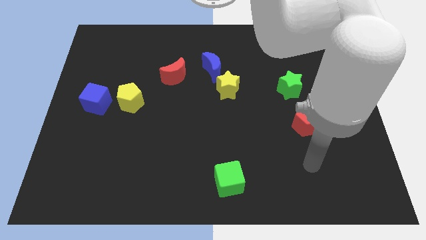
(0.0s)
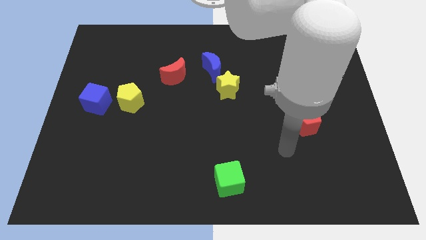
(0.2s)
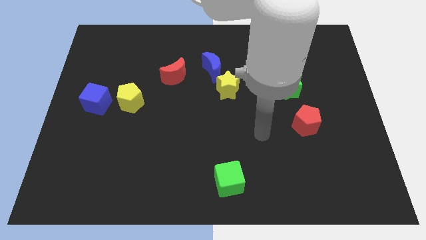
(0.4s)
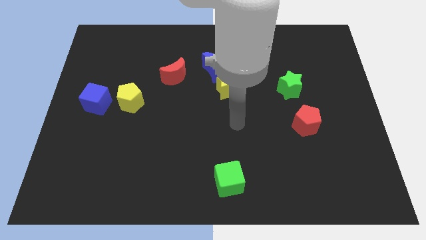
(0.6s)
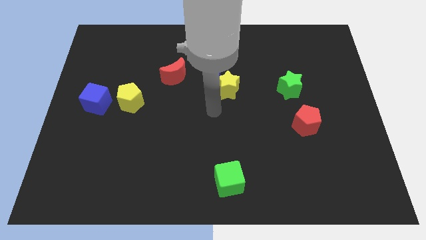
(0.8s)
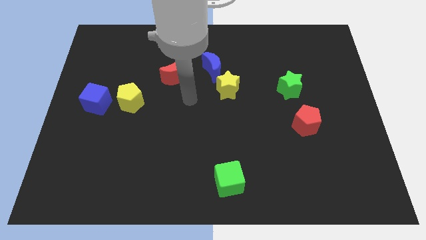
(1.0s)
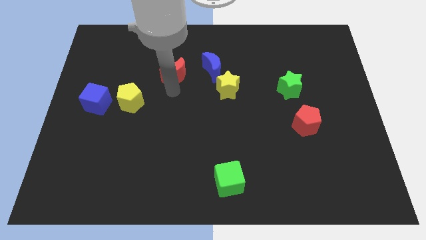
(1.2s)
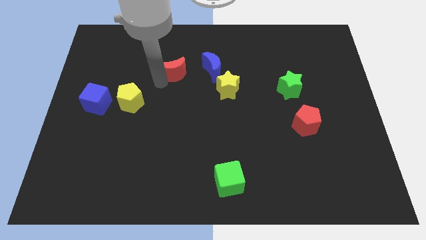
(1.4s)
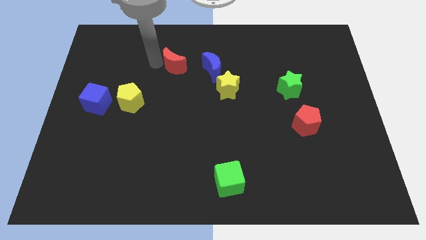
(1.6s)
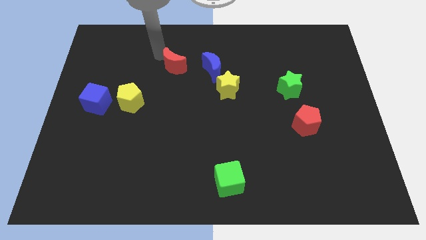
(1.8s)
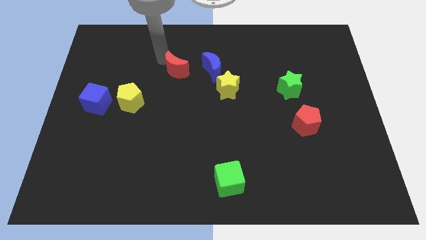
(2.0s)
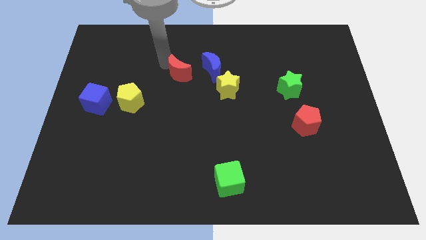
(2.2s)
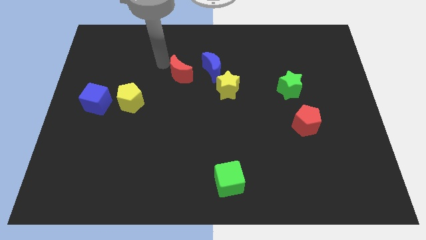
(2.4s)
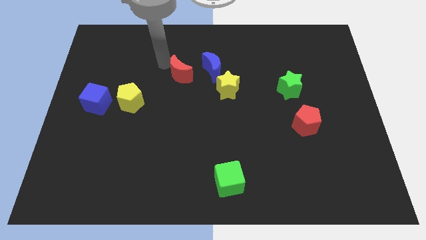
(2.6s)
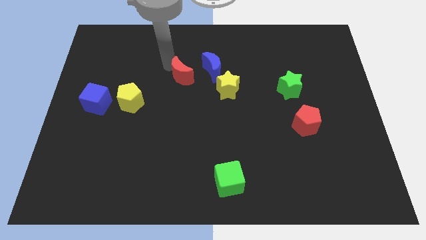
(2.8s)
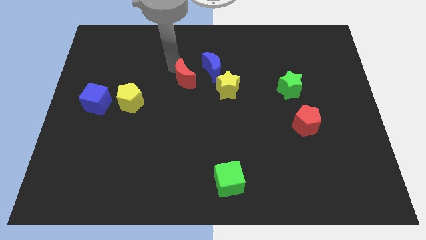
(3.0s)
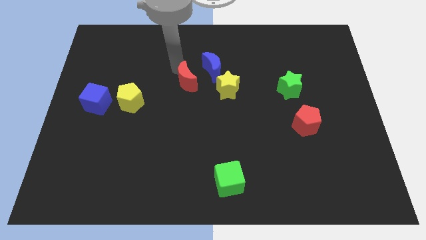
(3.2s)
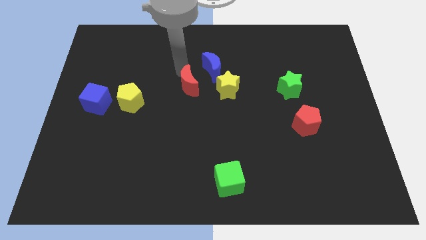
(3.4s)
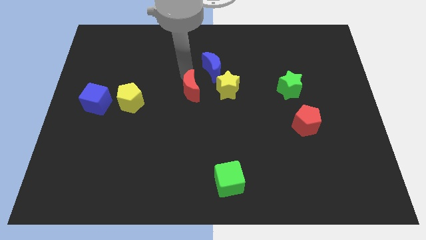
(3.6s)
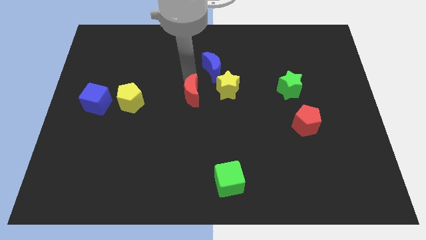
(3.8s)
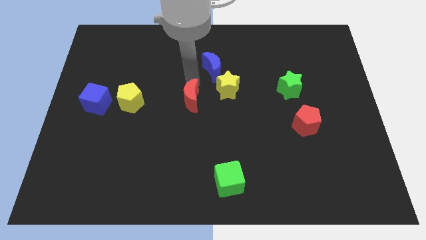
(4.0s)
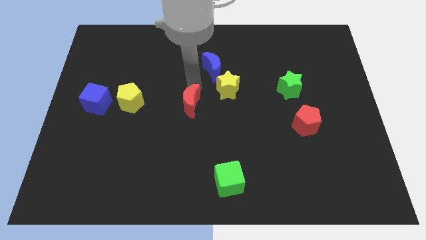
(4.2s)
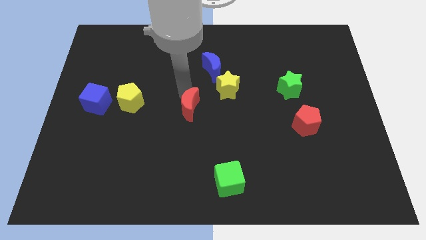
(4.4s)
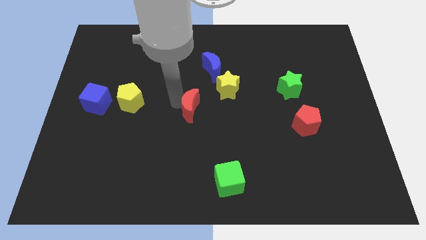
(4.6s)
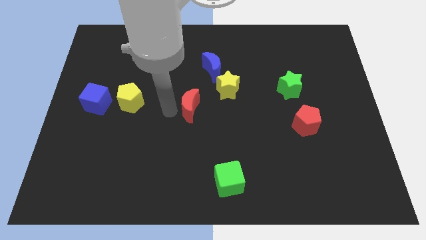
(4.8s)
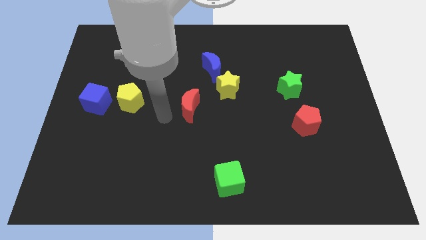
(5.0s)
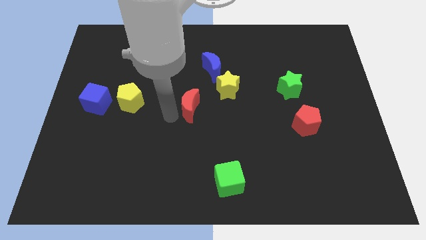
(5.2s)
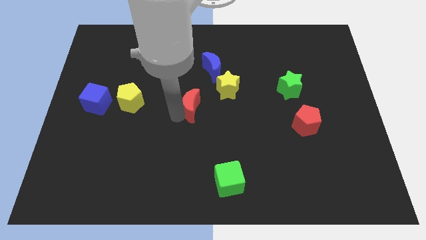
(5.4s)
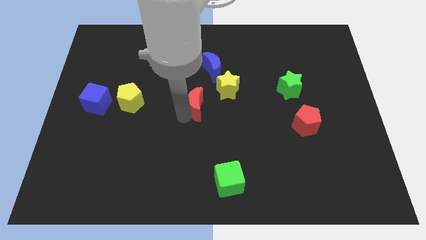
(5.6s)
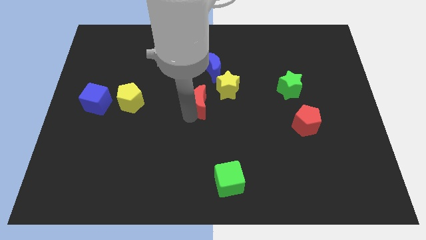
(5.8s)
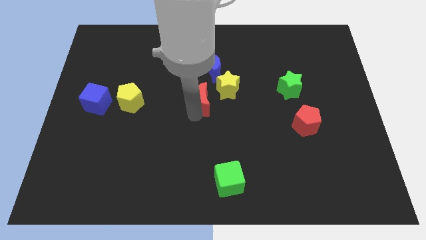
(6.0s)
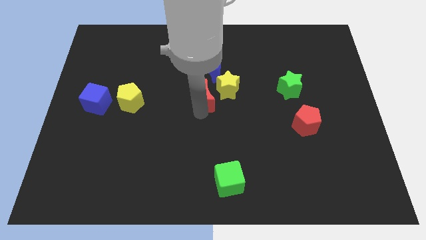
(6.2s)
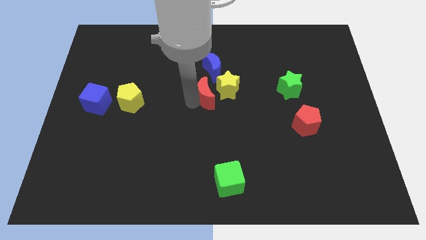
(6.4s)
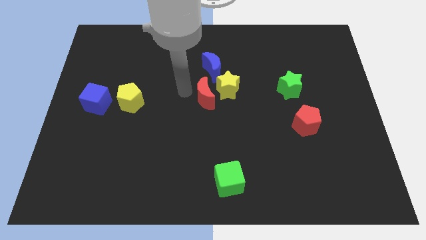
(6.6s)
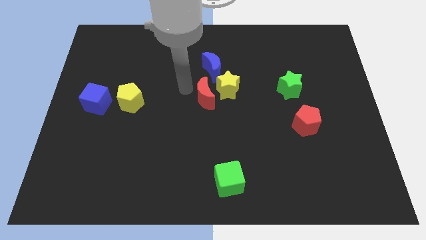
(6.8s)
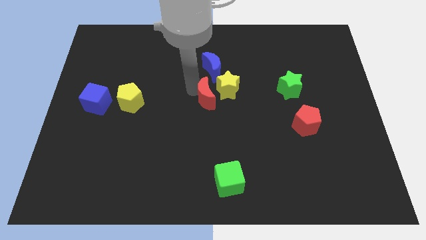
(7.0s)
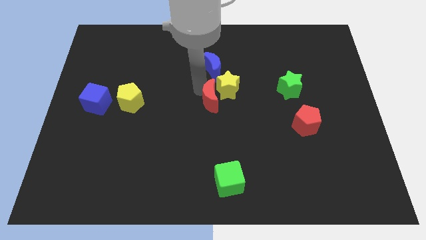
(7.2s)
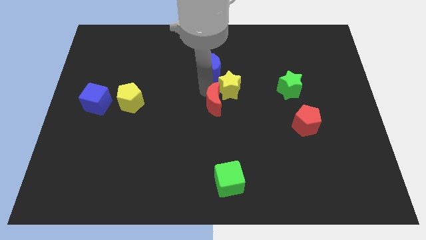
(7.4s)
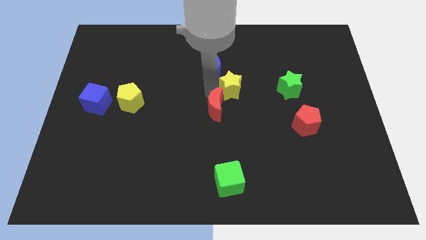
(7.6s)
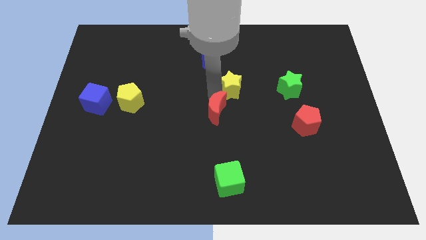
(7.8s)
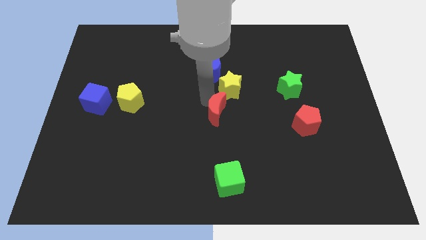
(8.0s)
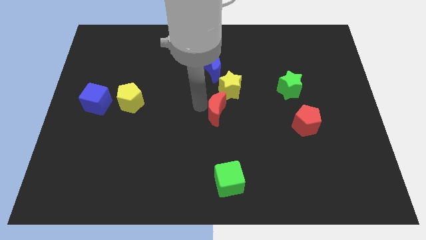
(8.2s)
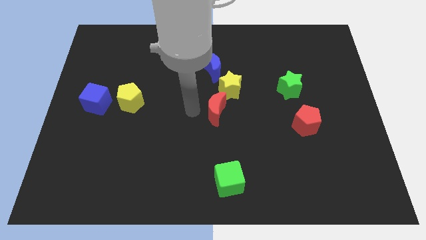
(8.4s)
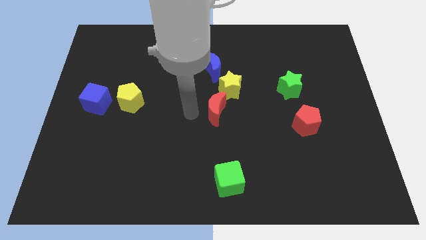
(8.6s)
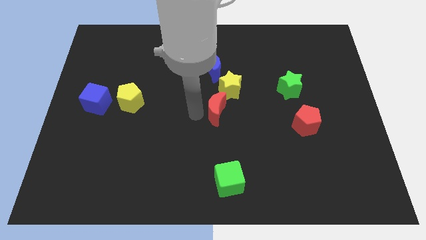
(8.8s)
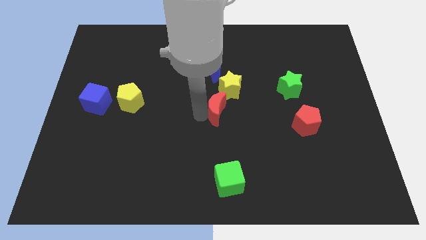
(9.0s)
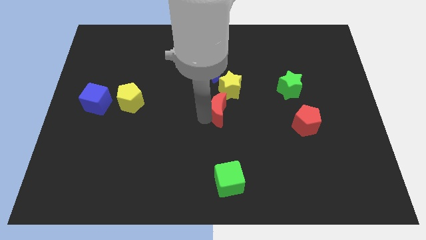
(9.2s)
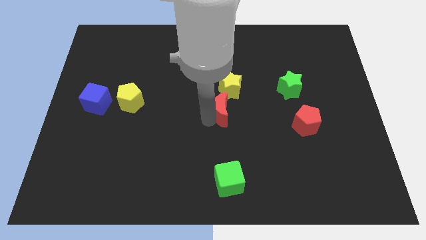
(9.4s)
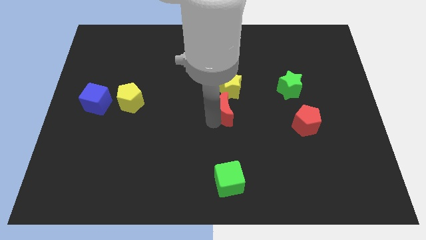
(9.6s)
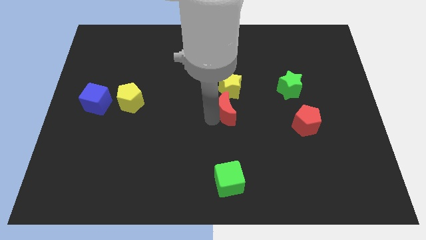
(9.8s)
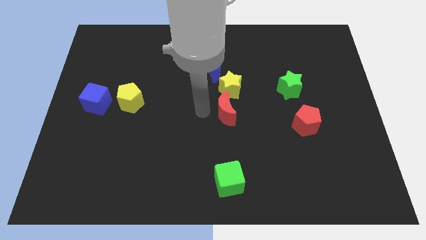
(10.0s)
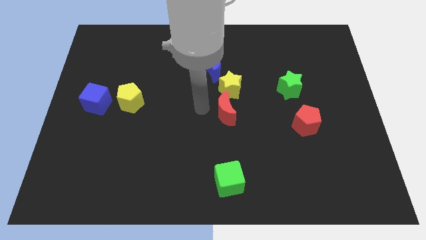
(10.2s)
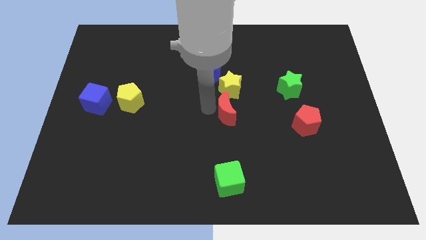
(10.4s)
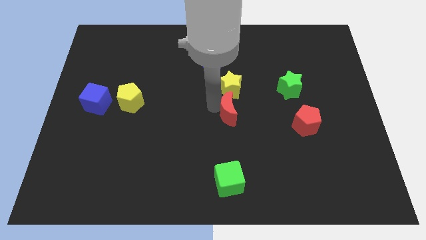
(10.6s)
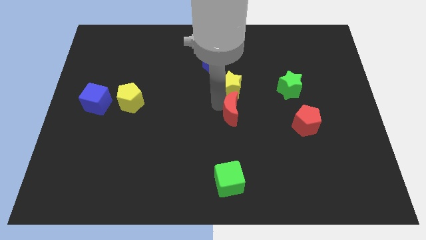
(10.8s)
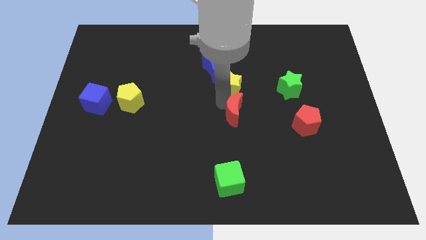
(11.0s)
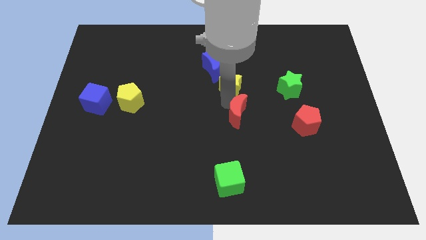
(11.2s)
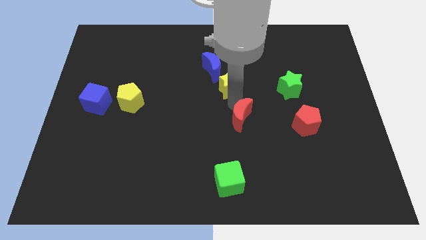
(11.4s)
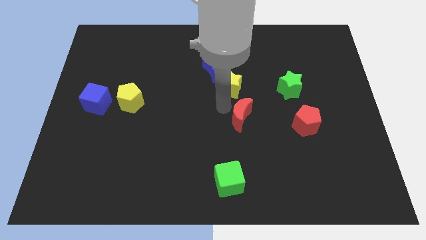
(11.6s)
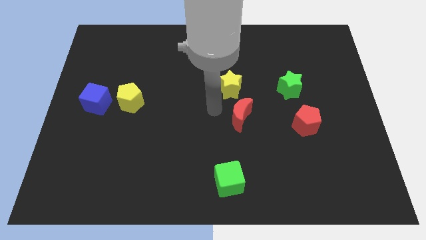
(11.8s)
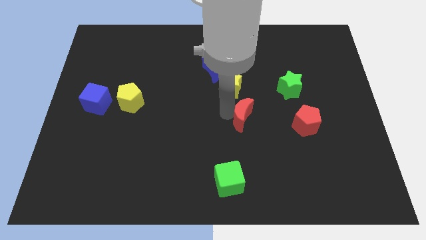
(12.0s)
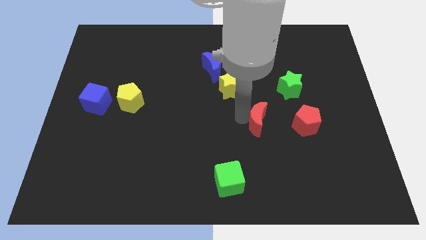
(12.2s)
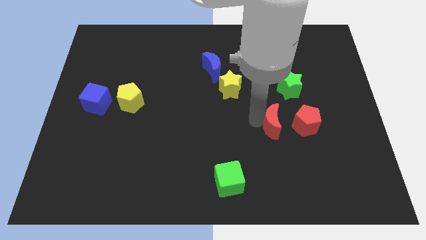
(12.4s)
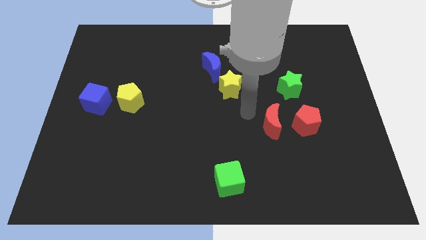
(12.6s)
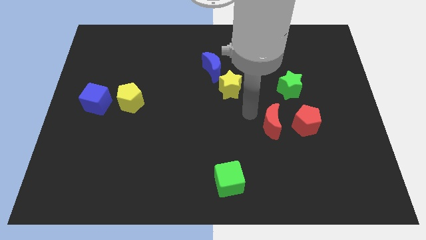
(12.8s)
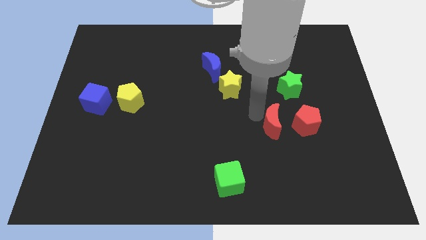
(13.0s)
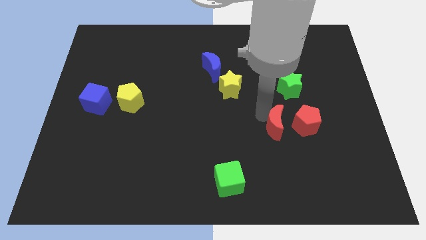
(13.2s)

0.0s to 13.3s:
move the red moon to the bottom side of the green star

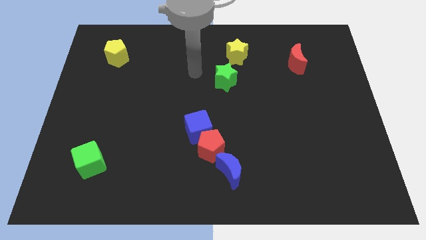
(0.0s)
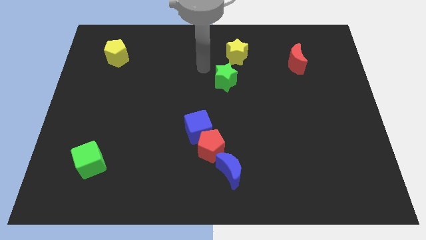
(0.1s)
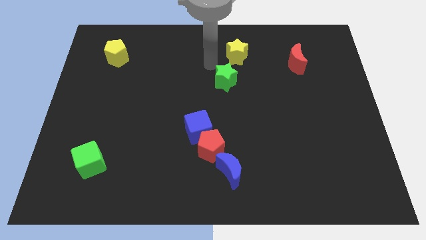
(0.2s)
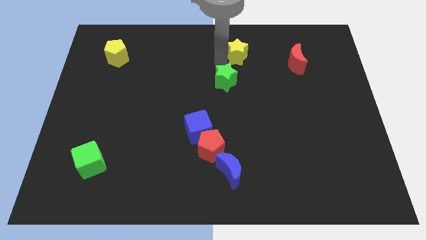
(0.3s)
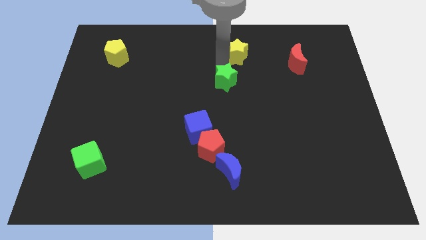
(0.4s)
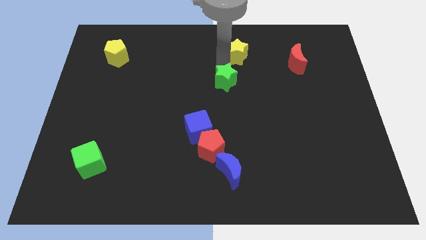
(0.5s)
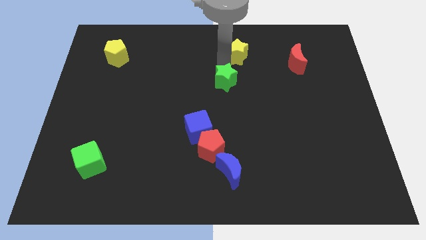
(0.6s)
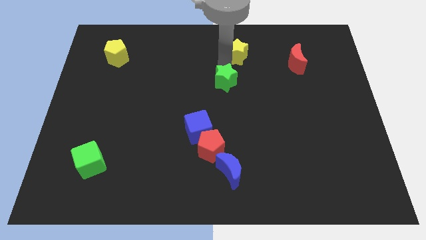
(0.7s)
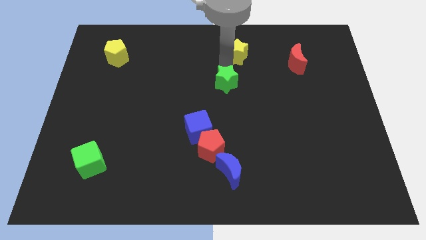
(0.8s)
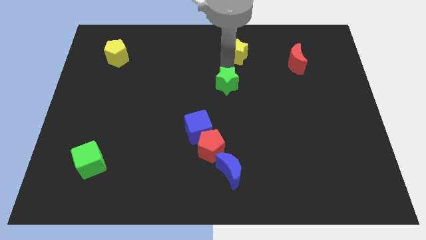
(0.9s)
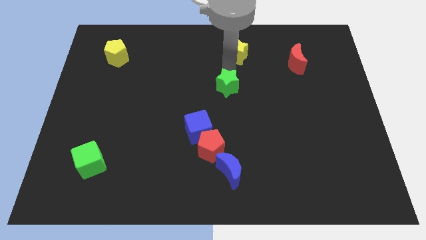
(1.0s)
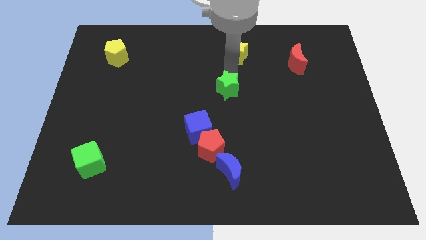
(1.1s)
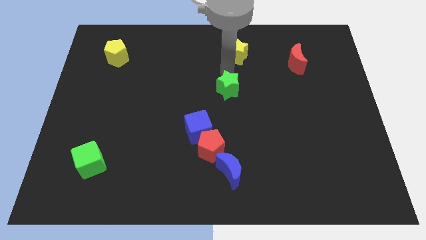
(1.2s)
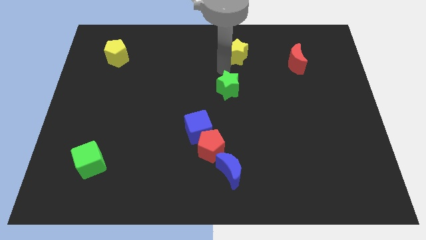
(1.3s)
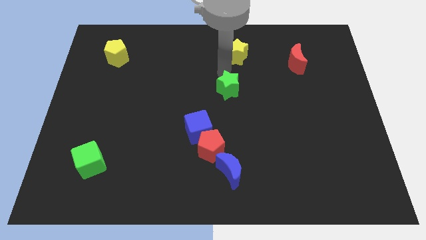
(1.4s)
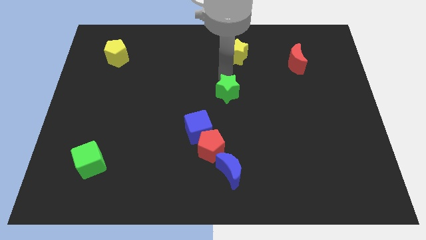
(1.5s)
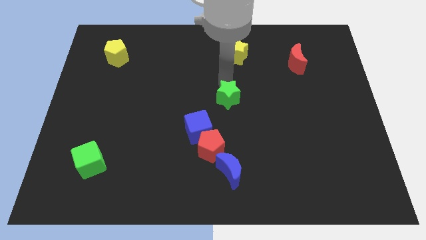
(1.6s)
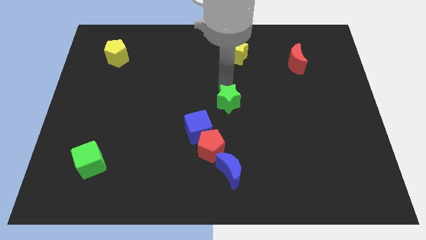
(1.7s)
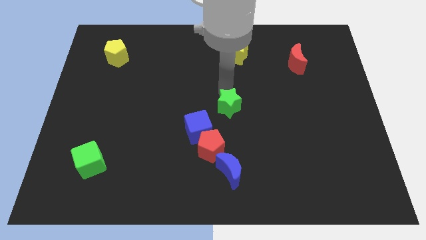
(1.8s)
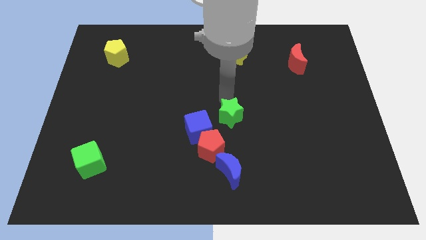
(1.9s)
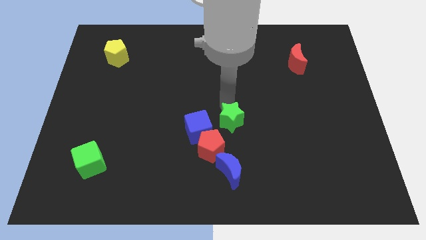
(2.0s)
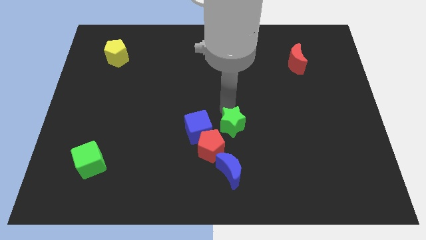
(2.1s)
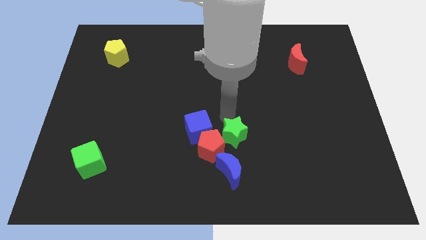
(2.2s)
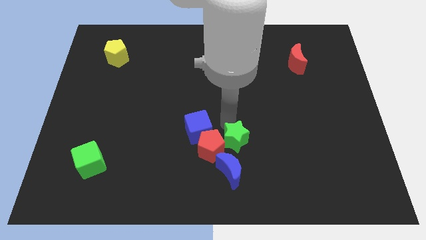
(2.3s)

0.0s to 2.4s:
slide the green star to the top right of the blue moon
